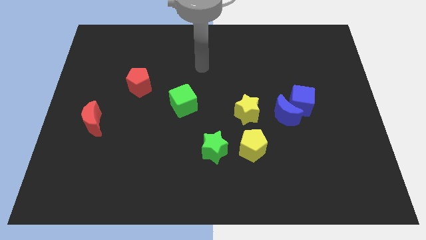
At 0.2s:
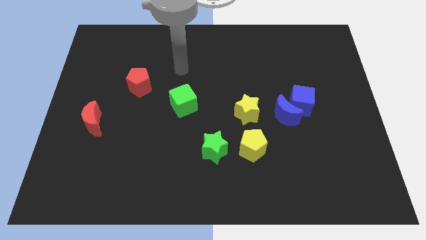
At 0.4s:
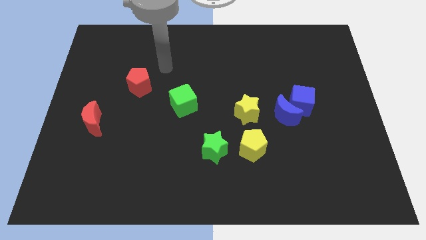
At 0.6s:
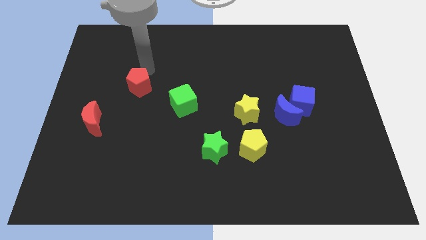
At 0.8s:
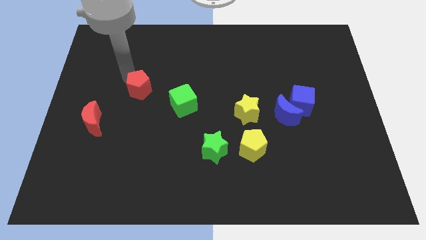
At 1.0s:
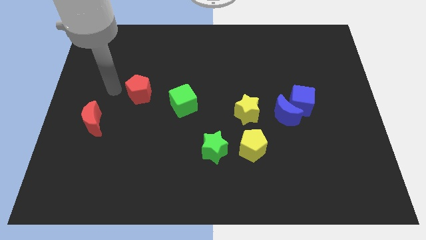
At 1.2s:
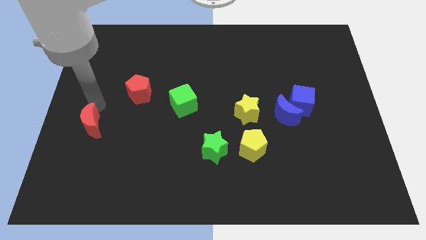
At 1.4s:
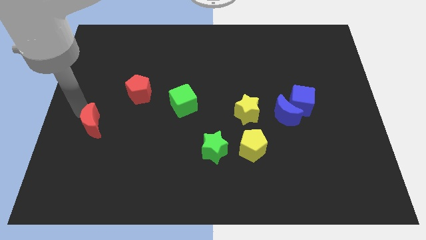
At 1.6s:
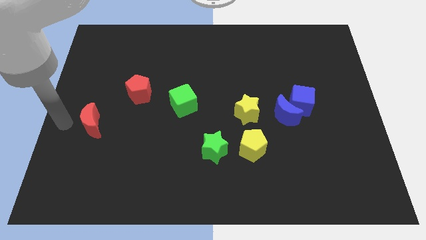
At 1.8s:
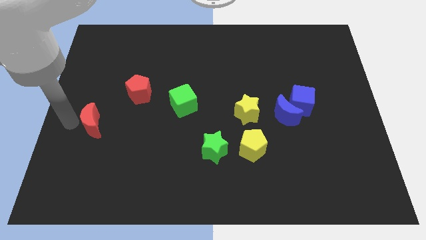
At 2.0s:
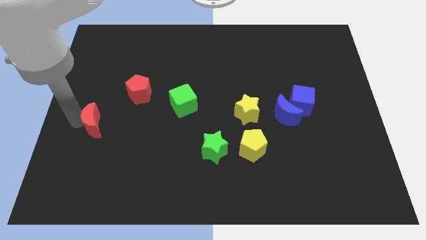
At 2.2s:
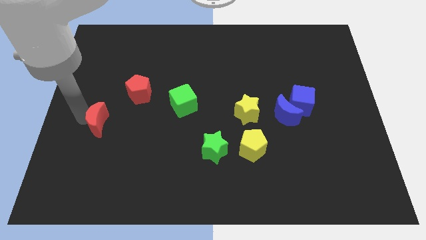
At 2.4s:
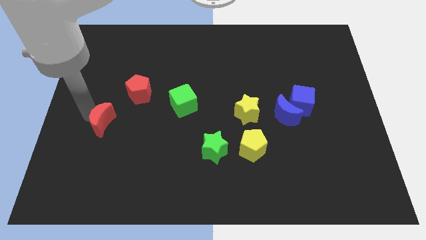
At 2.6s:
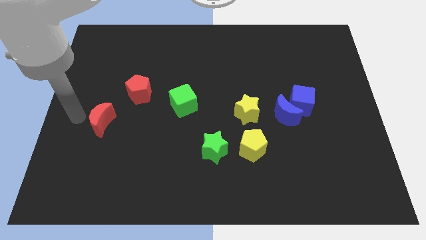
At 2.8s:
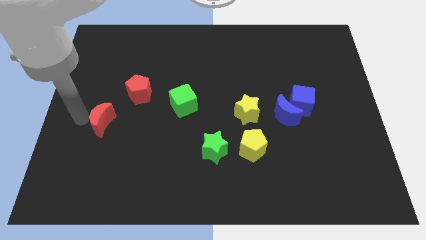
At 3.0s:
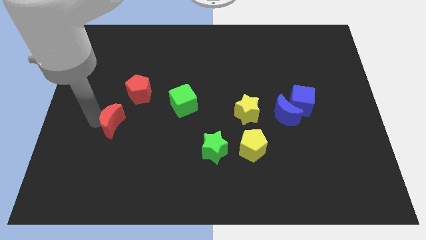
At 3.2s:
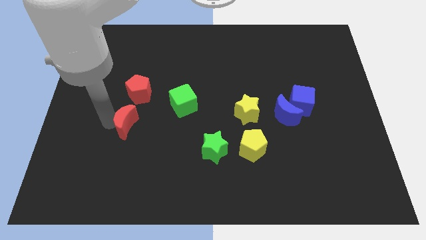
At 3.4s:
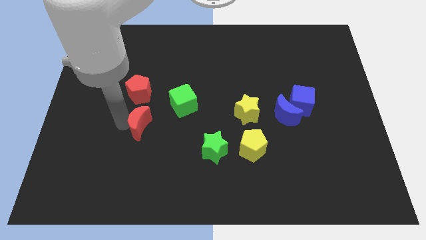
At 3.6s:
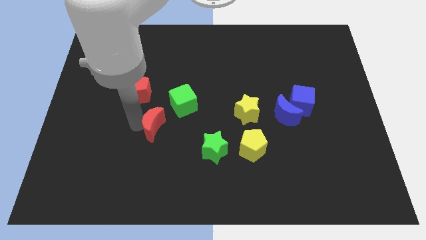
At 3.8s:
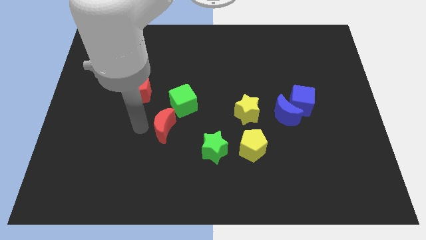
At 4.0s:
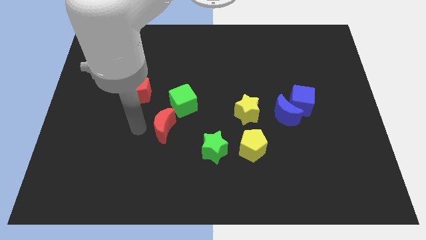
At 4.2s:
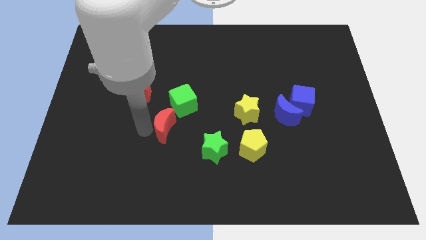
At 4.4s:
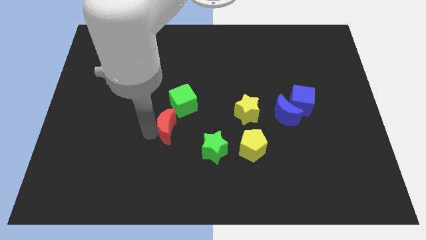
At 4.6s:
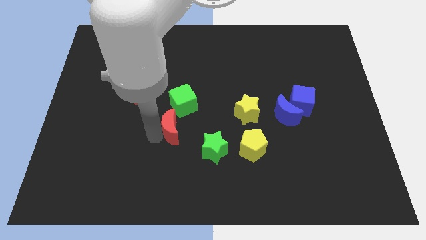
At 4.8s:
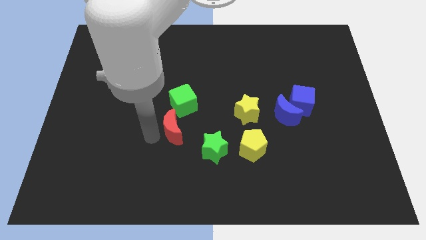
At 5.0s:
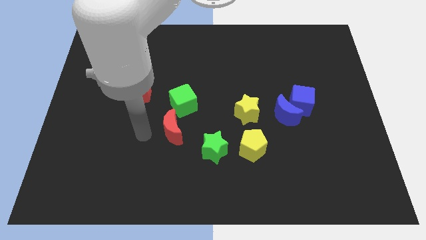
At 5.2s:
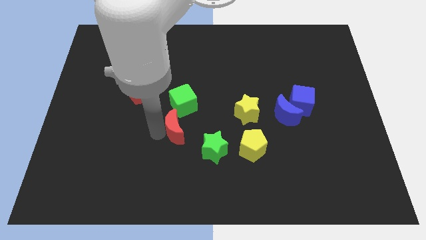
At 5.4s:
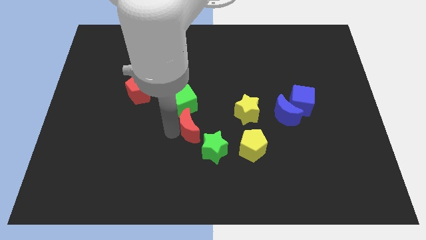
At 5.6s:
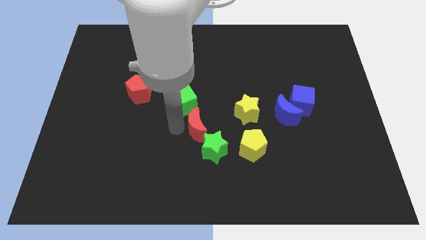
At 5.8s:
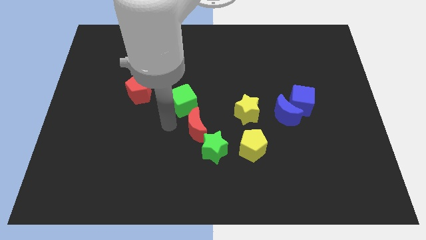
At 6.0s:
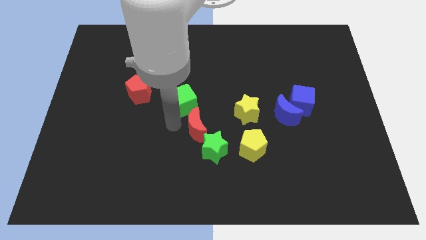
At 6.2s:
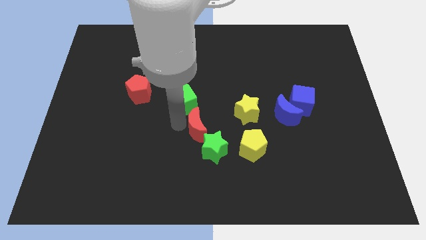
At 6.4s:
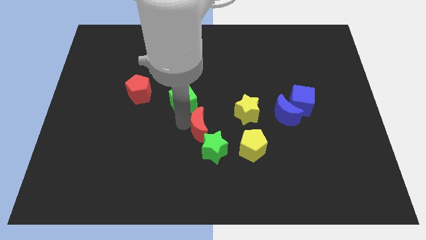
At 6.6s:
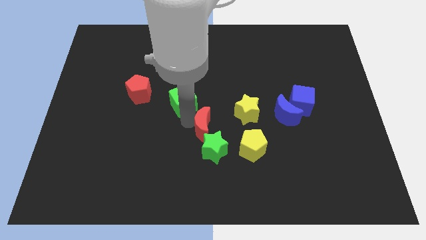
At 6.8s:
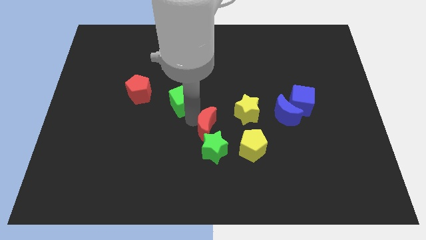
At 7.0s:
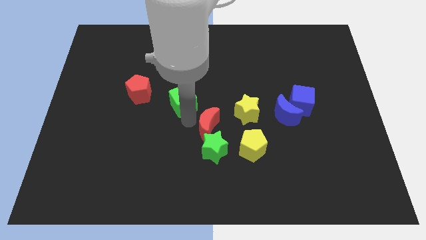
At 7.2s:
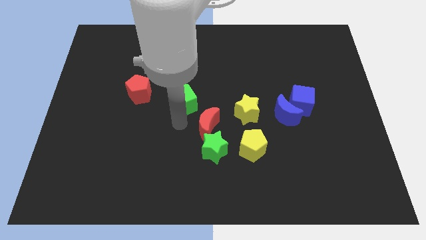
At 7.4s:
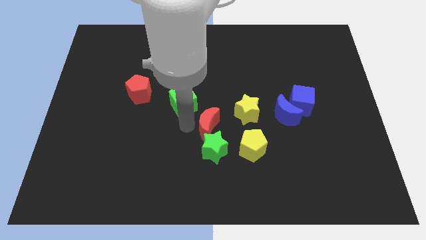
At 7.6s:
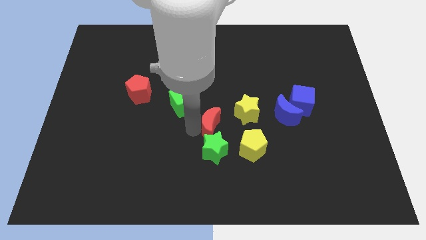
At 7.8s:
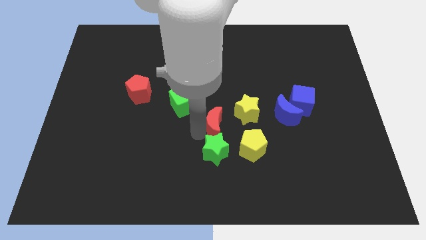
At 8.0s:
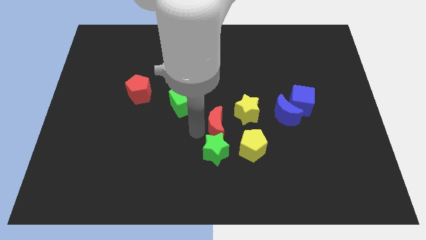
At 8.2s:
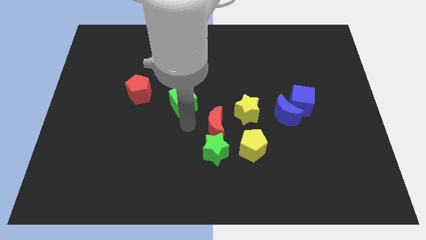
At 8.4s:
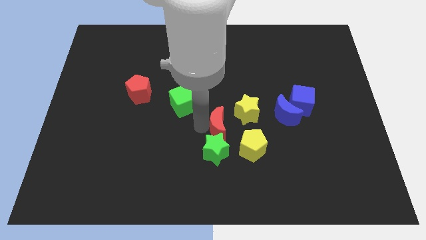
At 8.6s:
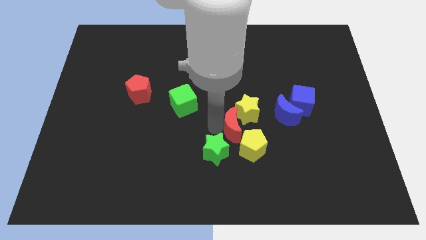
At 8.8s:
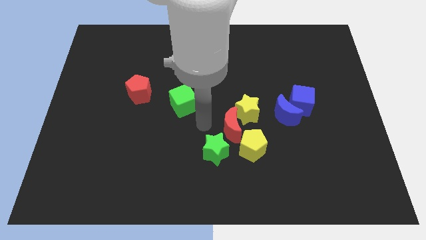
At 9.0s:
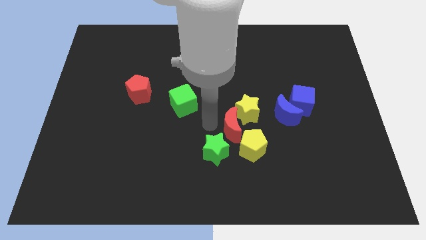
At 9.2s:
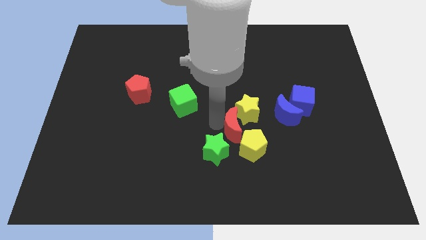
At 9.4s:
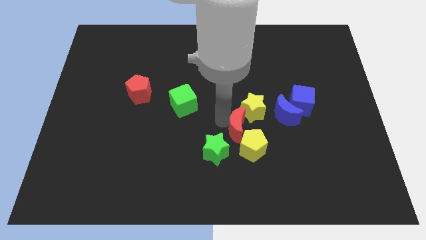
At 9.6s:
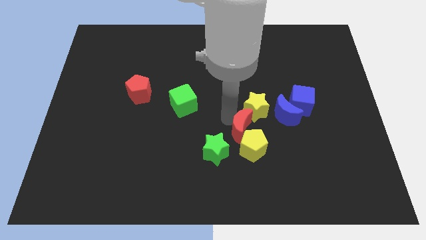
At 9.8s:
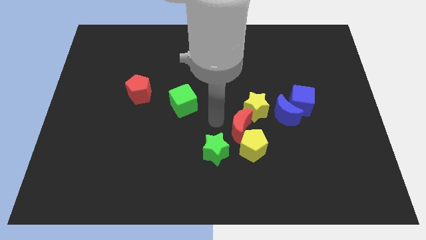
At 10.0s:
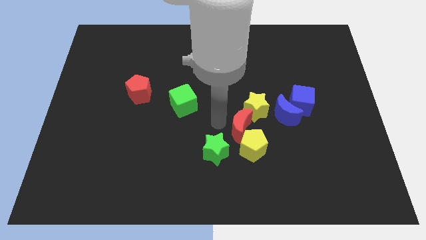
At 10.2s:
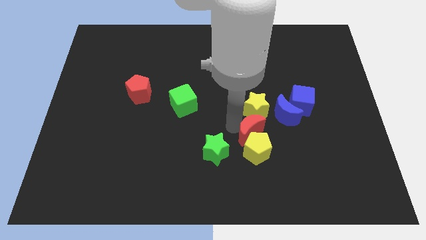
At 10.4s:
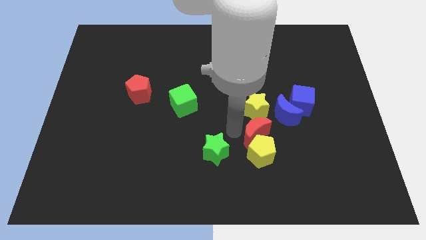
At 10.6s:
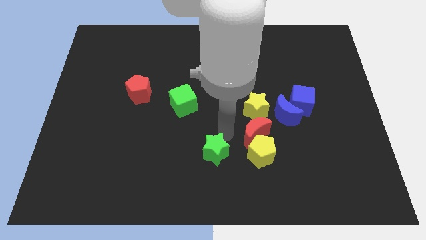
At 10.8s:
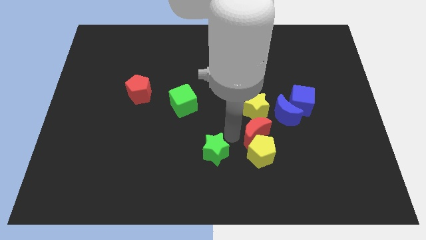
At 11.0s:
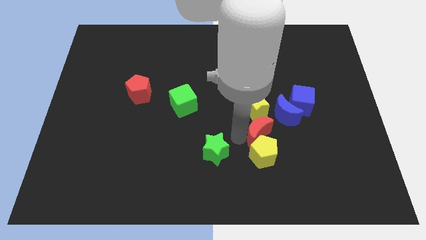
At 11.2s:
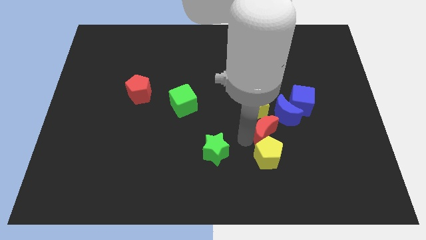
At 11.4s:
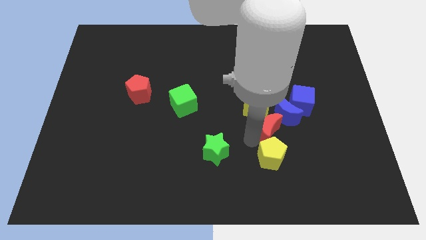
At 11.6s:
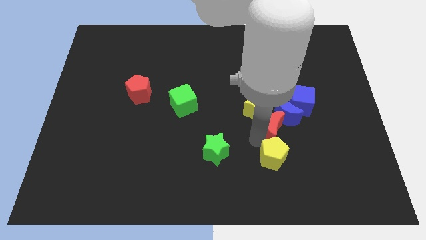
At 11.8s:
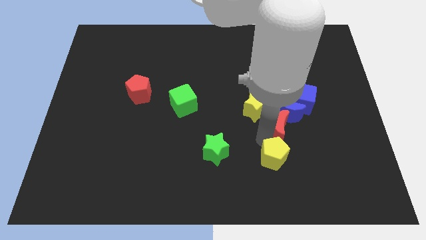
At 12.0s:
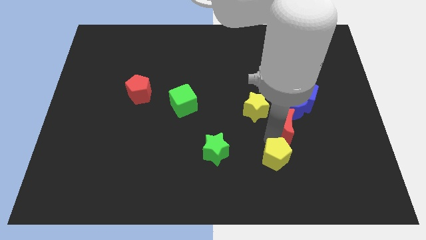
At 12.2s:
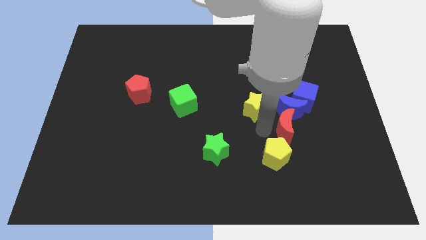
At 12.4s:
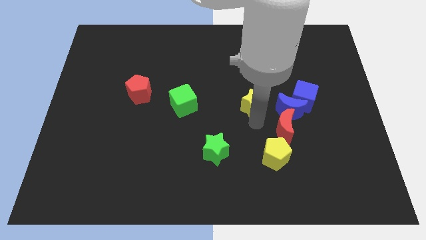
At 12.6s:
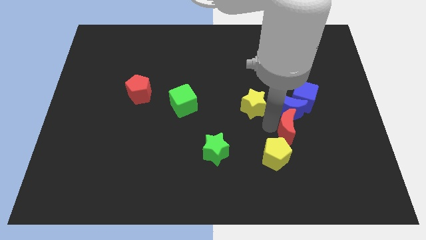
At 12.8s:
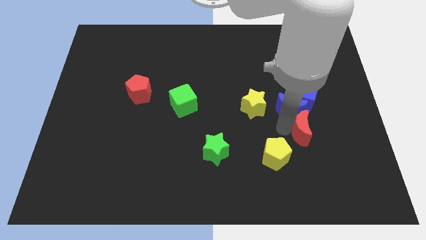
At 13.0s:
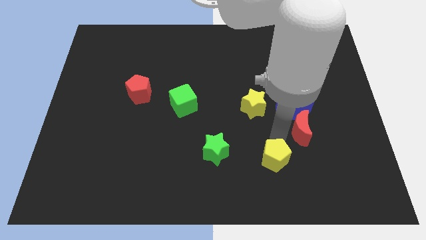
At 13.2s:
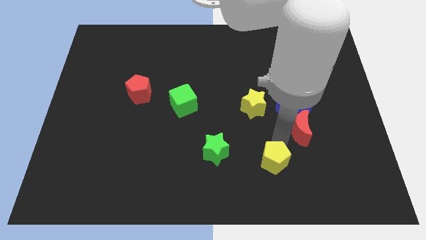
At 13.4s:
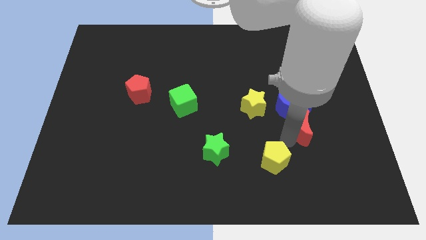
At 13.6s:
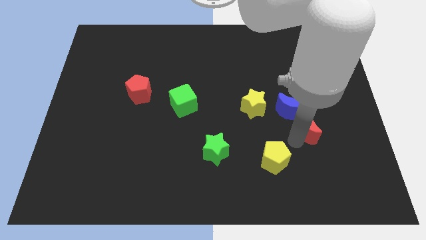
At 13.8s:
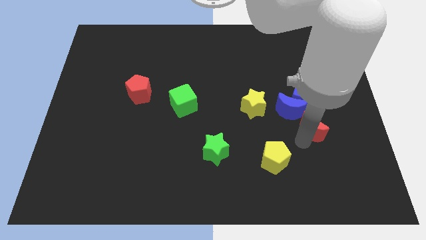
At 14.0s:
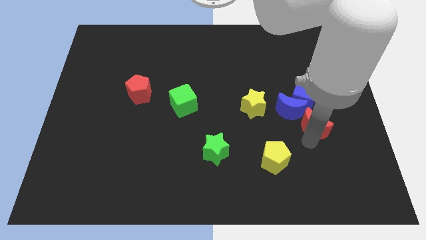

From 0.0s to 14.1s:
move the red moon to the bottom right of the blue cube

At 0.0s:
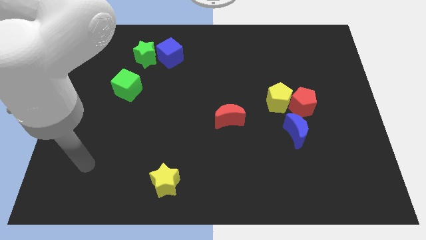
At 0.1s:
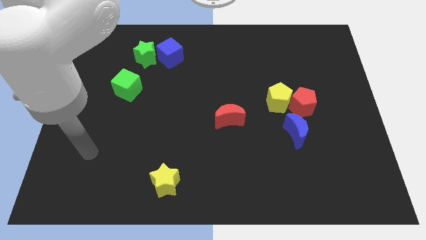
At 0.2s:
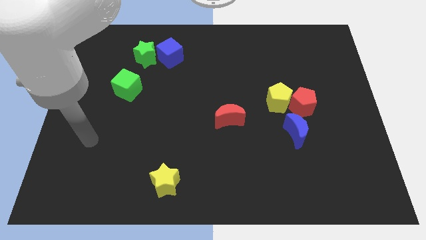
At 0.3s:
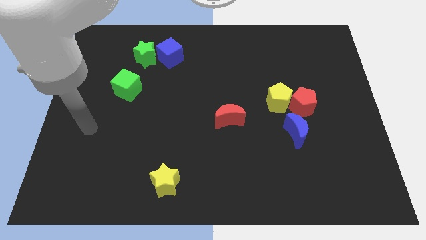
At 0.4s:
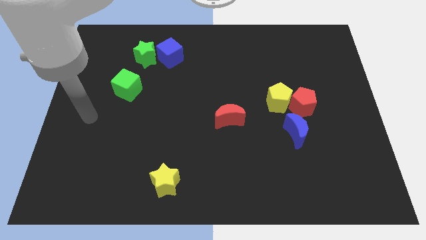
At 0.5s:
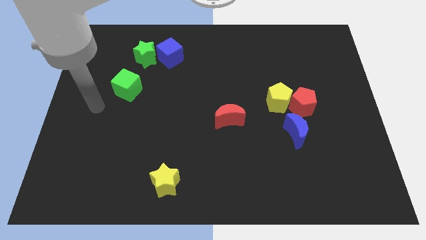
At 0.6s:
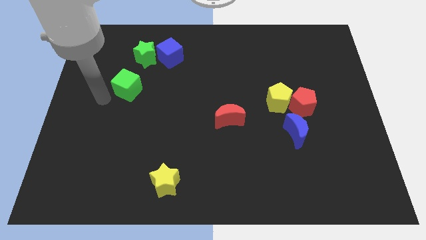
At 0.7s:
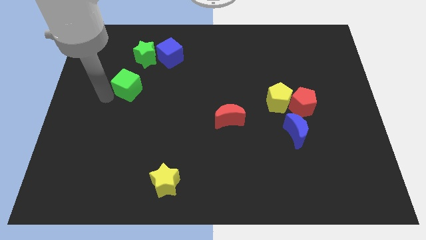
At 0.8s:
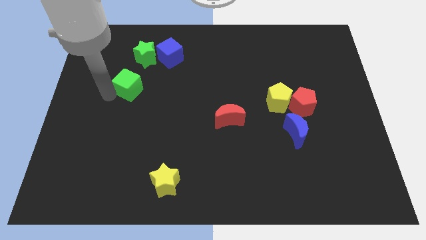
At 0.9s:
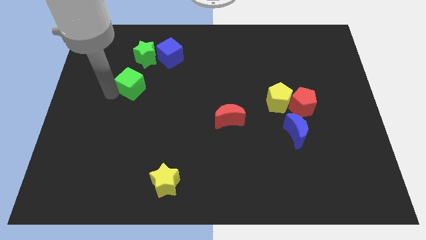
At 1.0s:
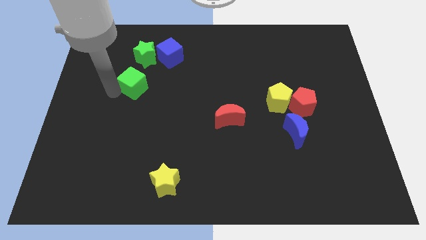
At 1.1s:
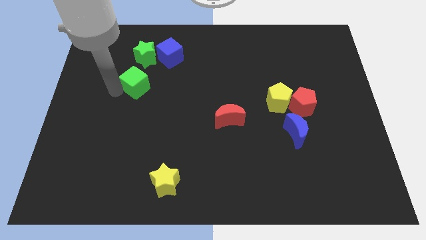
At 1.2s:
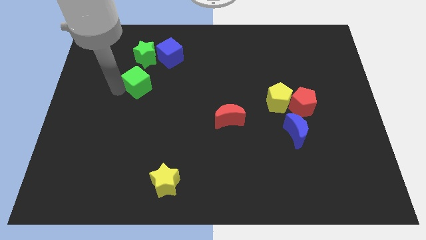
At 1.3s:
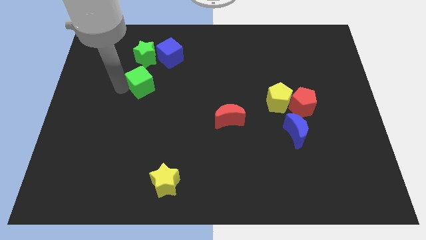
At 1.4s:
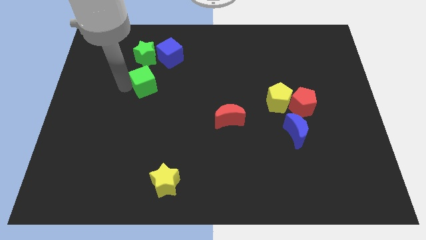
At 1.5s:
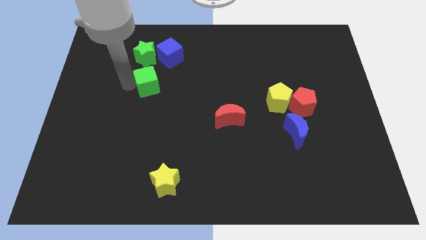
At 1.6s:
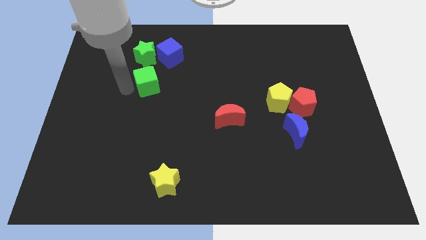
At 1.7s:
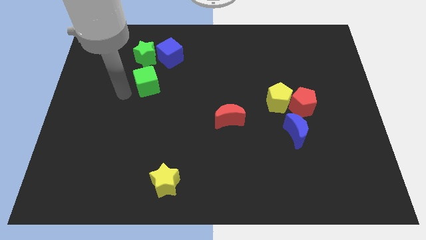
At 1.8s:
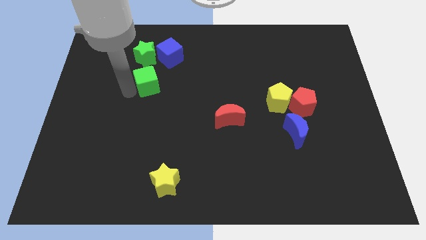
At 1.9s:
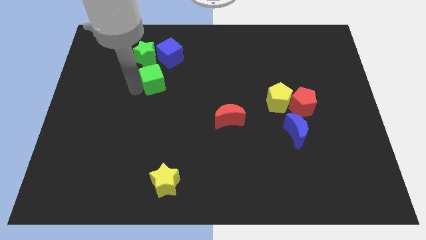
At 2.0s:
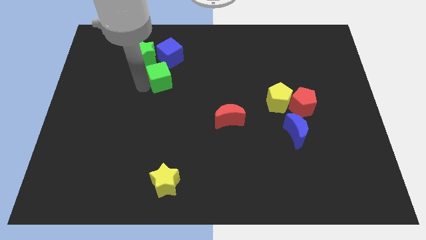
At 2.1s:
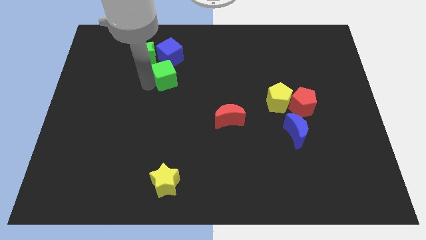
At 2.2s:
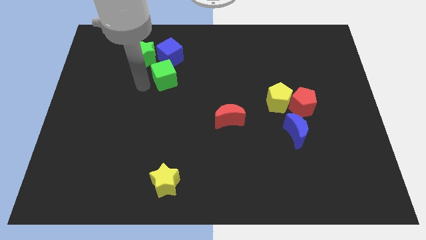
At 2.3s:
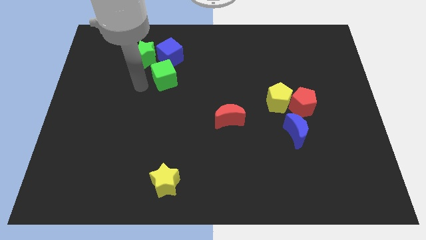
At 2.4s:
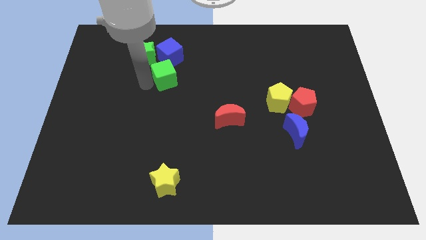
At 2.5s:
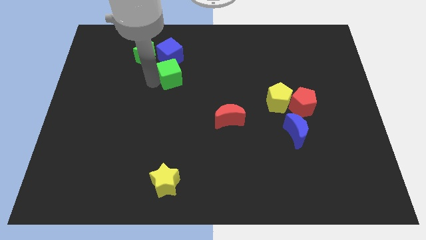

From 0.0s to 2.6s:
slide the green cube to the bottom right side of the blue cube
